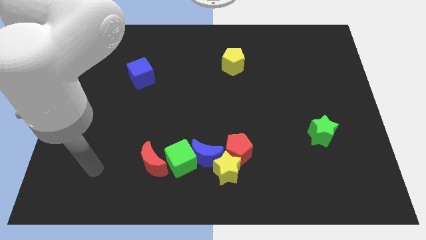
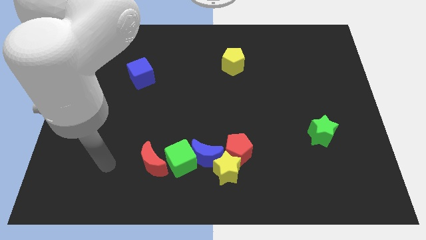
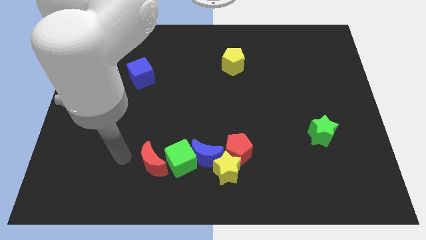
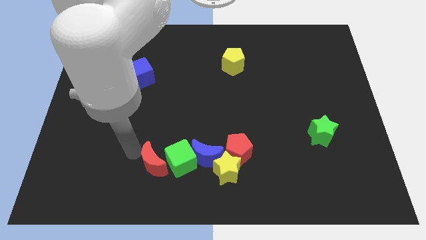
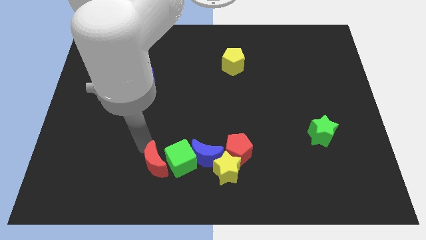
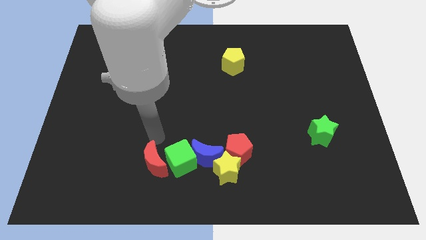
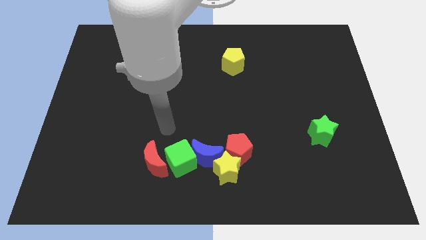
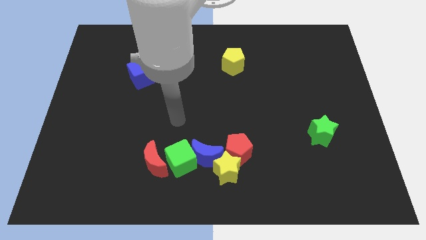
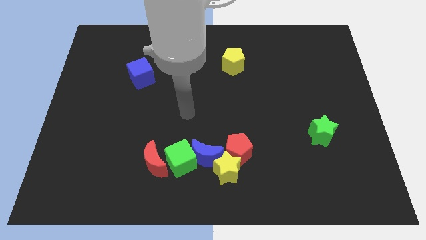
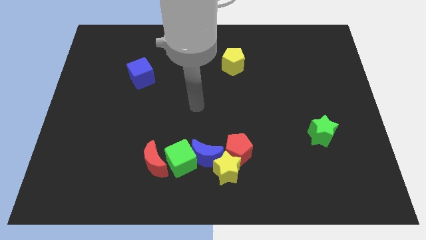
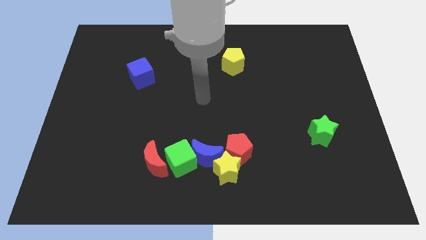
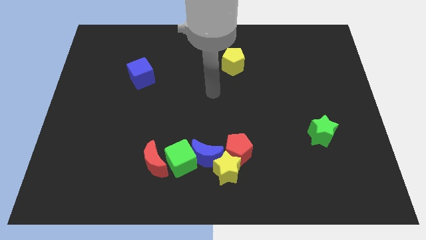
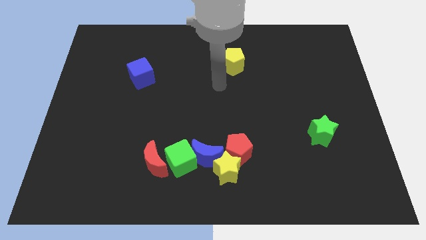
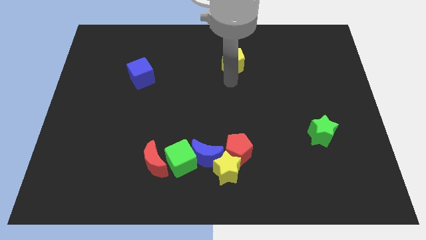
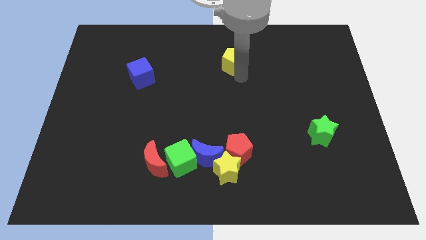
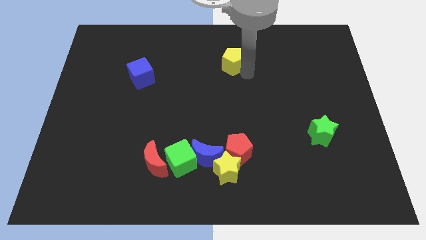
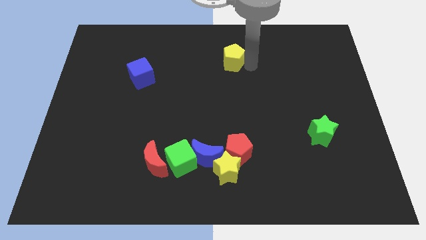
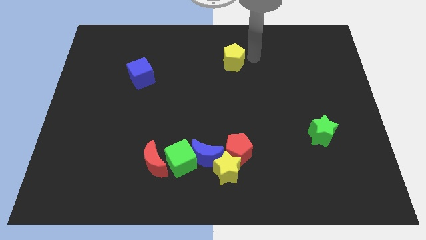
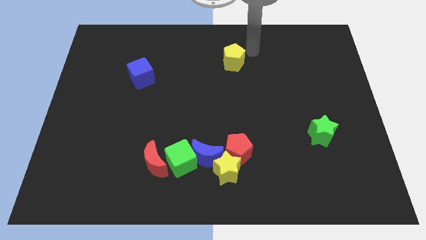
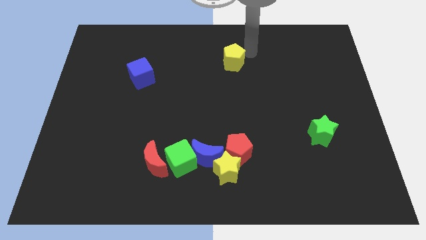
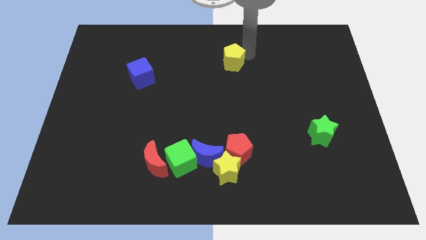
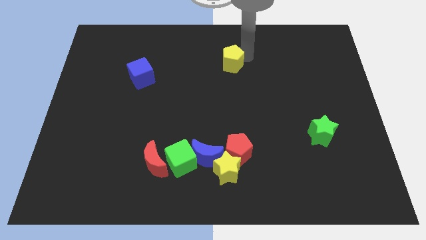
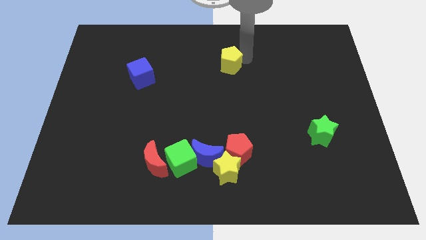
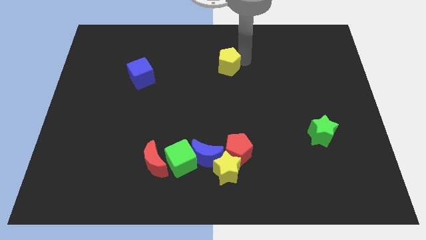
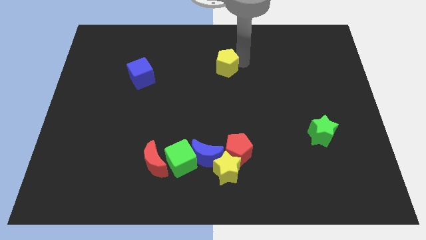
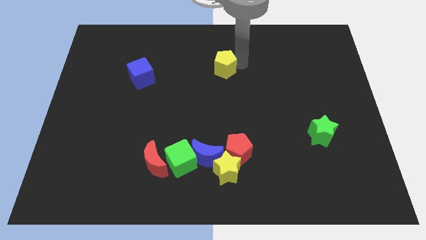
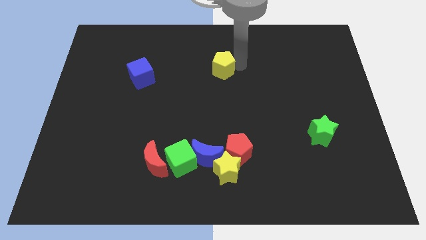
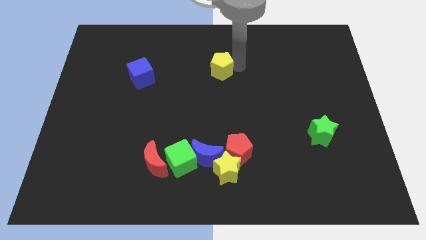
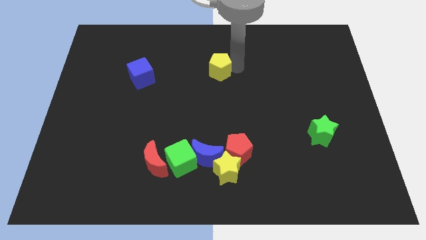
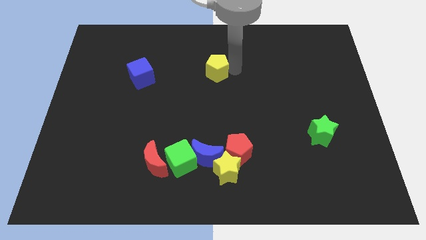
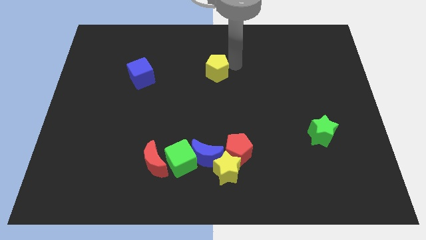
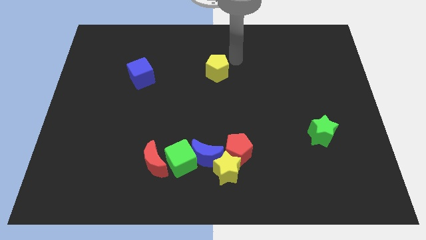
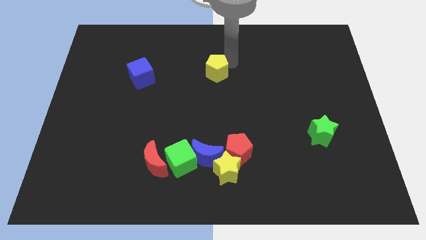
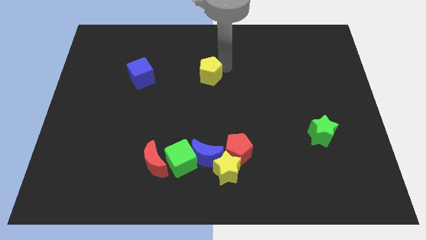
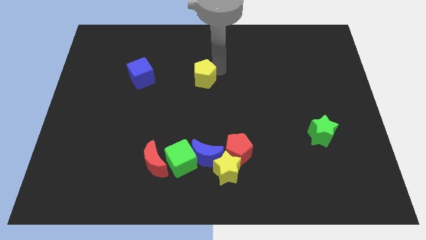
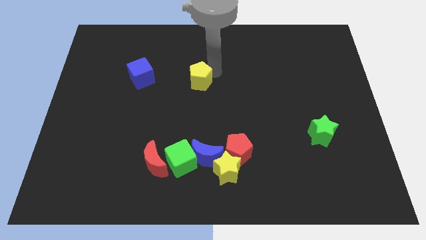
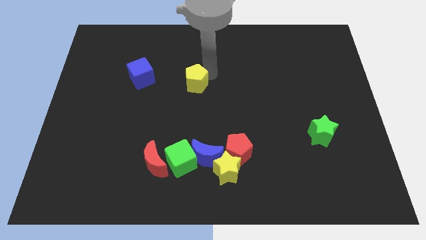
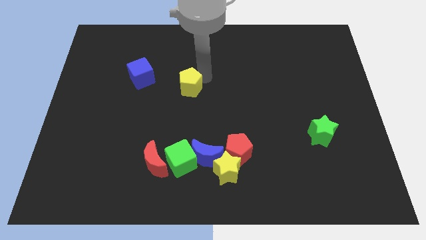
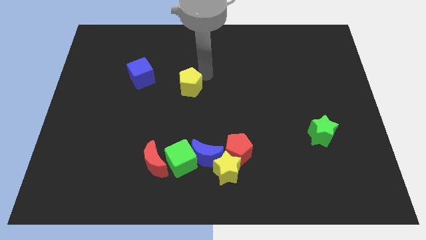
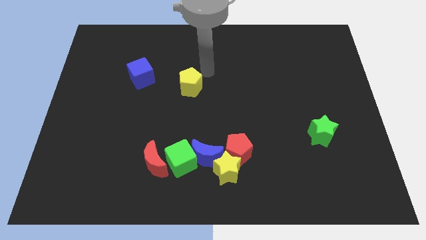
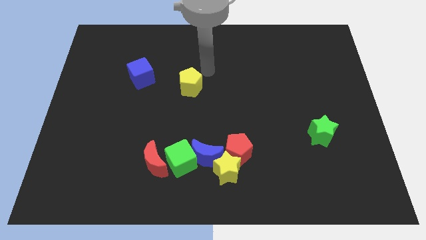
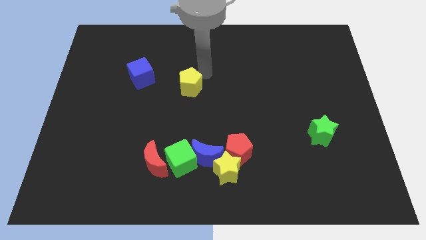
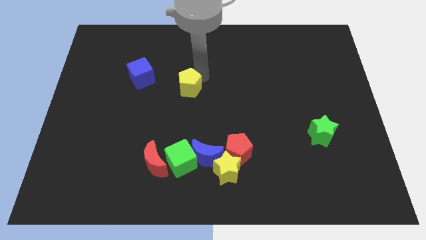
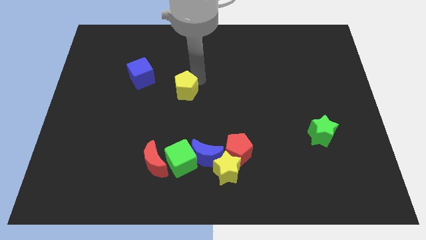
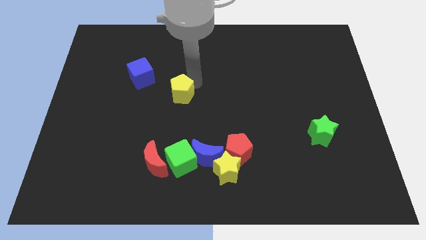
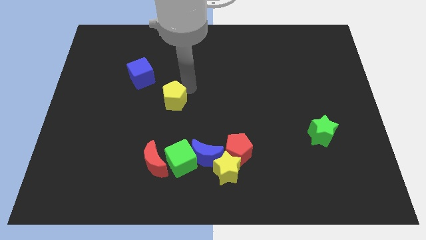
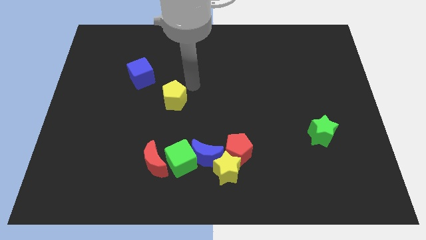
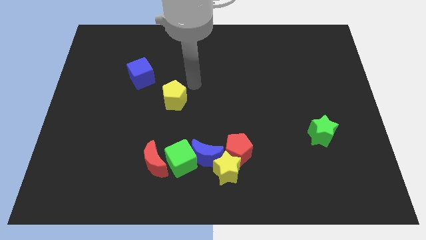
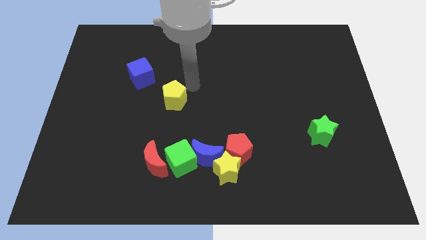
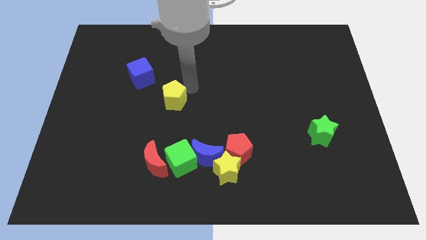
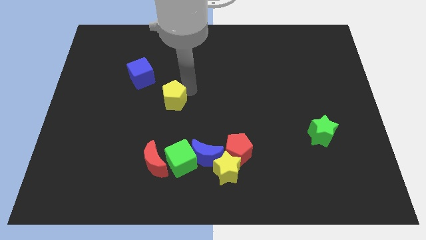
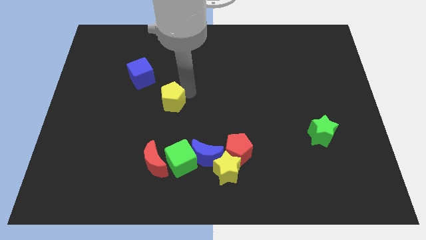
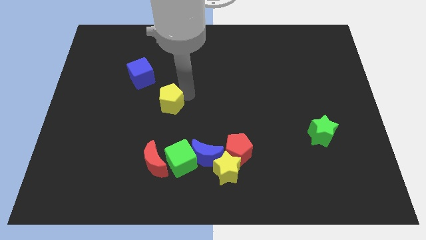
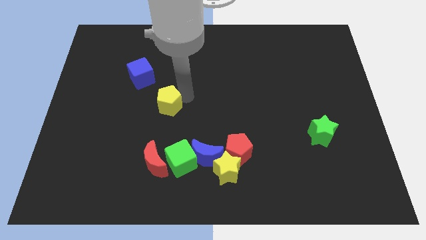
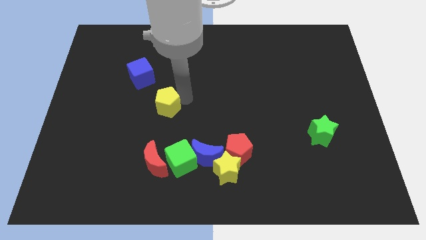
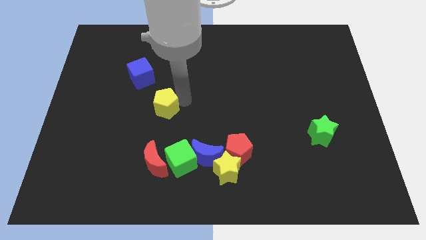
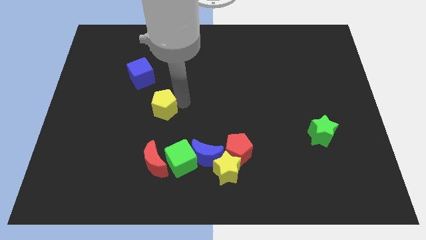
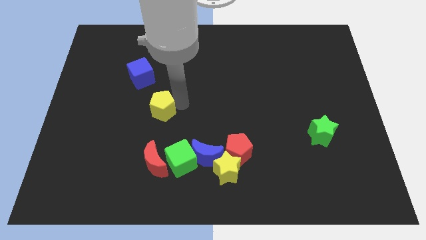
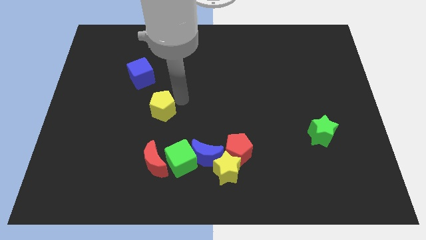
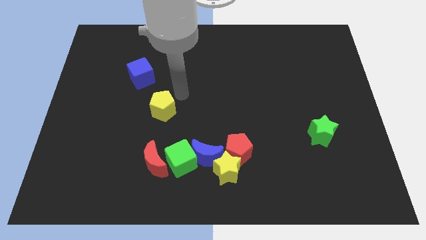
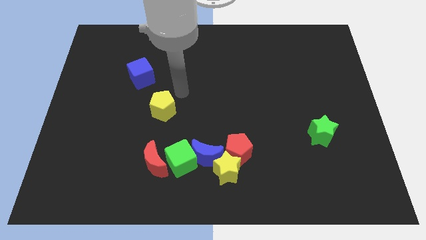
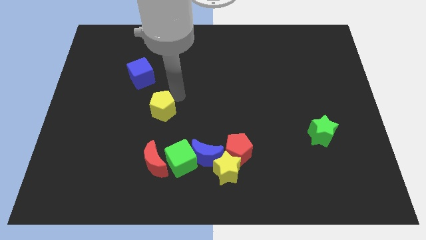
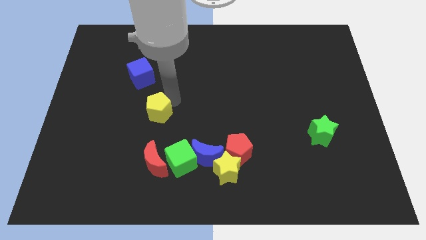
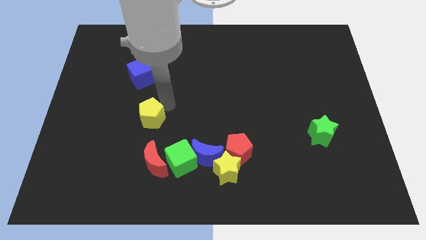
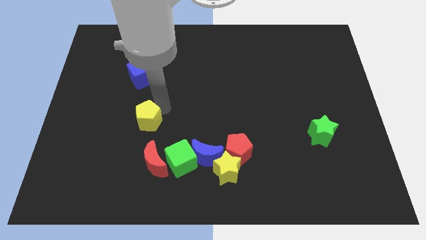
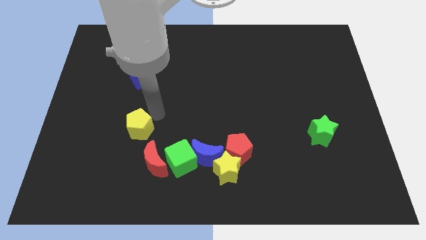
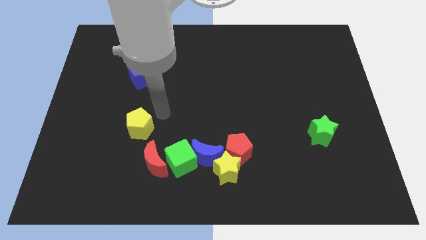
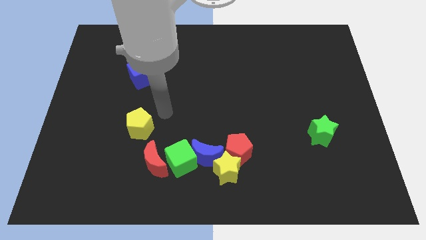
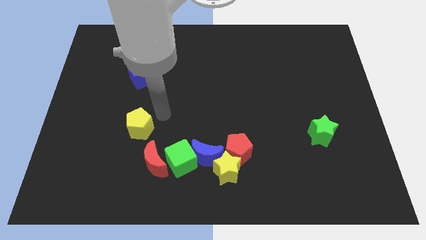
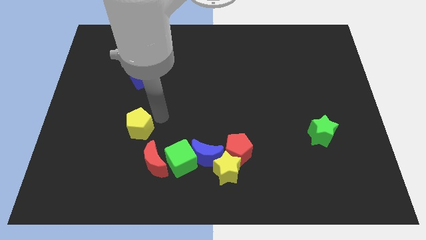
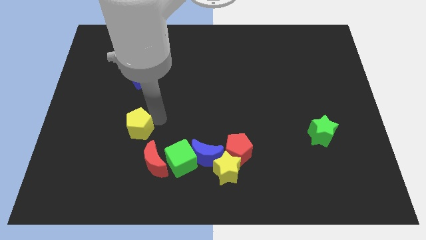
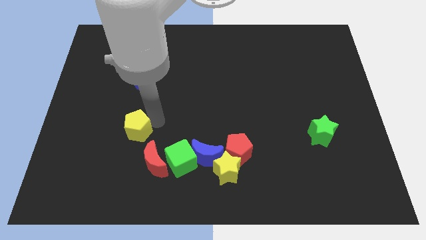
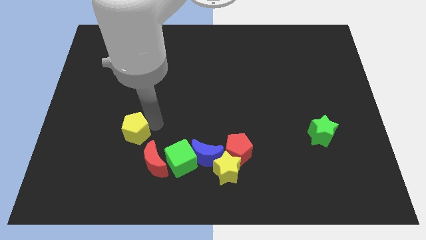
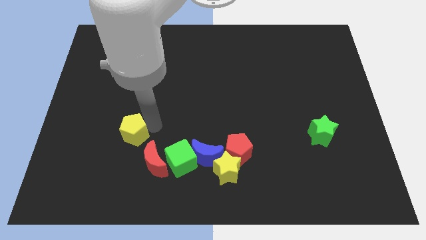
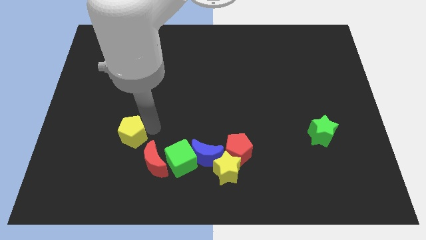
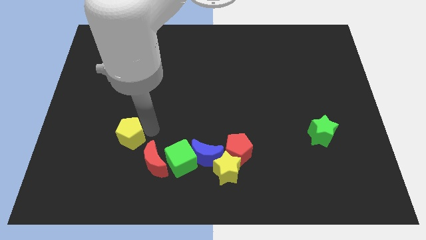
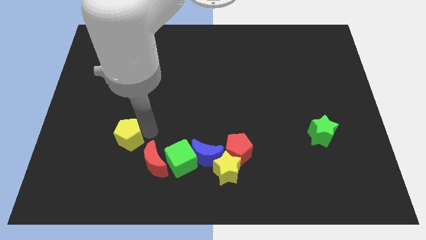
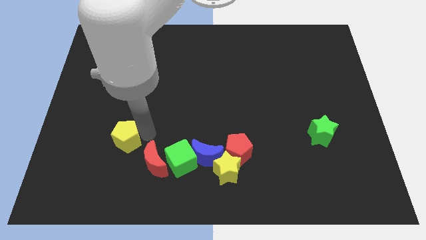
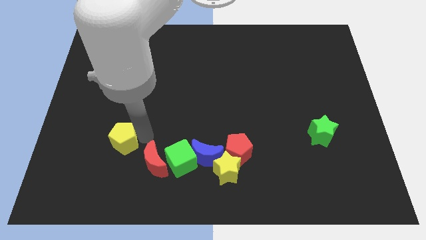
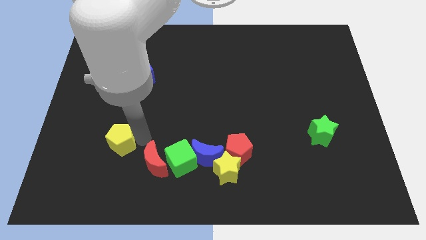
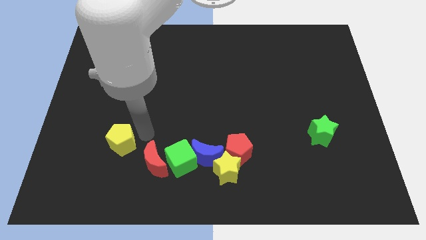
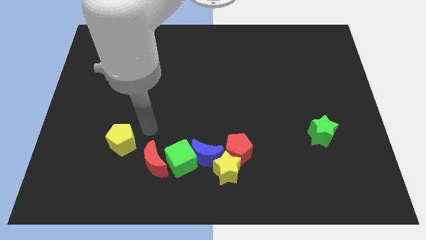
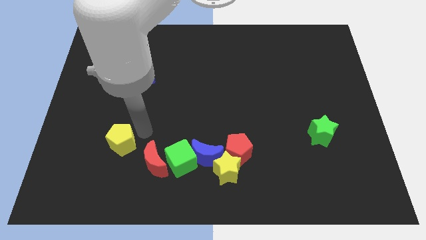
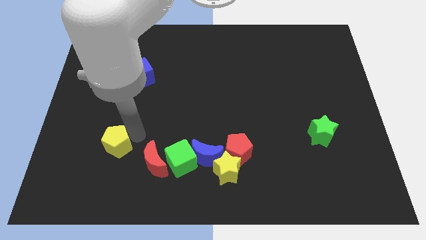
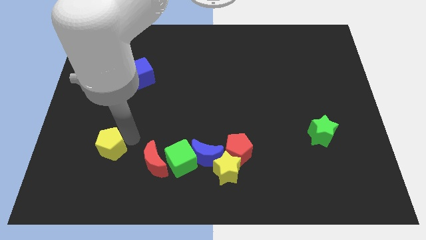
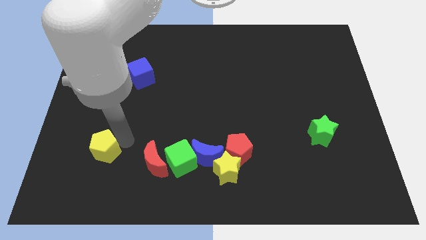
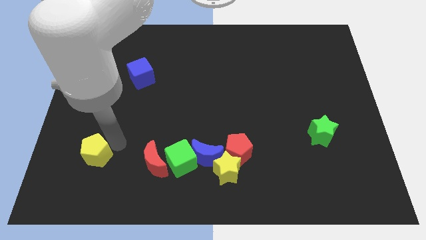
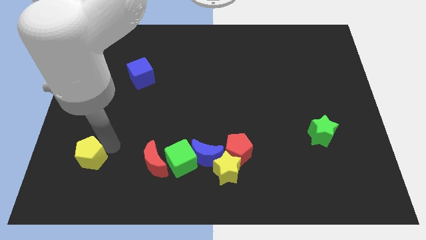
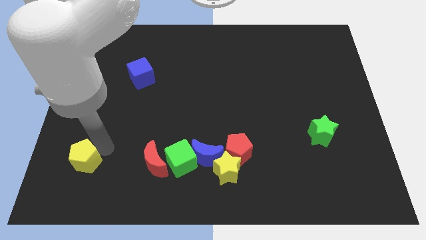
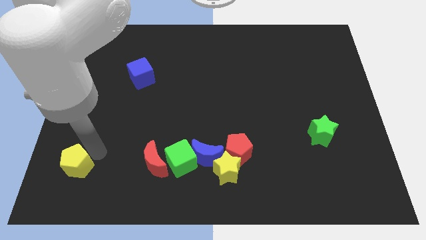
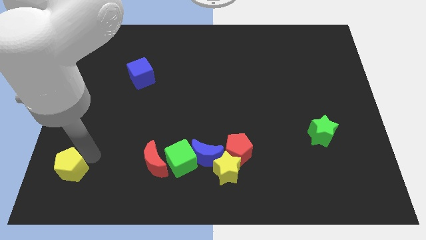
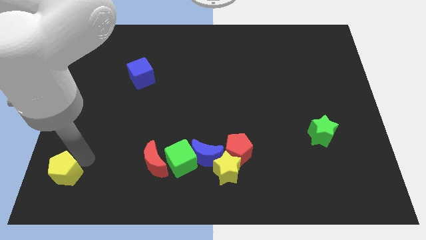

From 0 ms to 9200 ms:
slide the yellow pentagon to the bottom left
